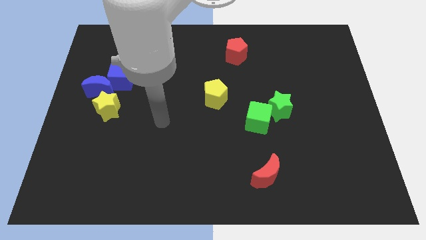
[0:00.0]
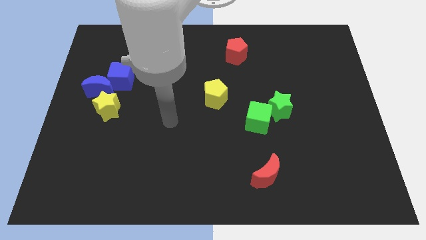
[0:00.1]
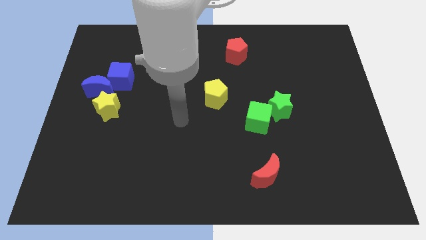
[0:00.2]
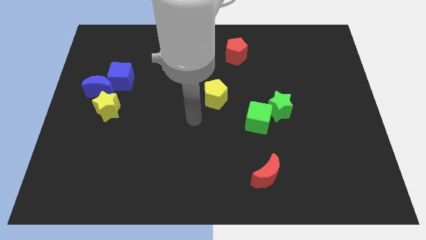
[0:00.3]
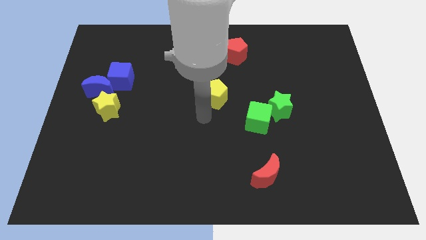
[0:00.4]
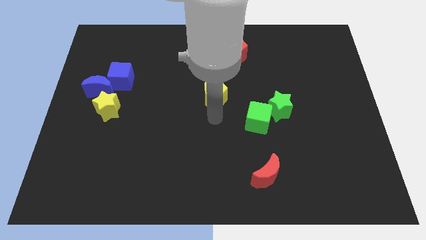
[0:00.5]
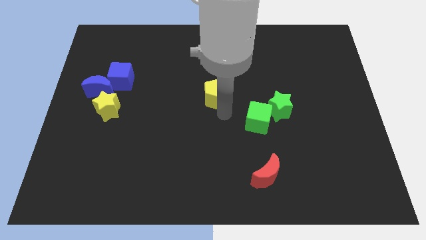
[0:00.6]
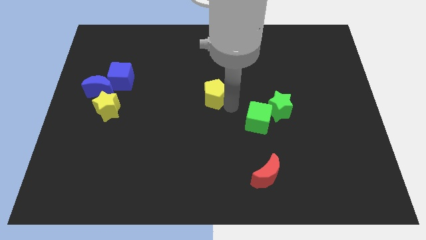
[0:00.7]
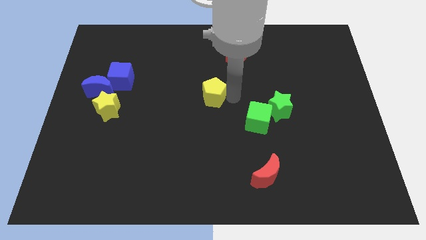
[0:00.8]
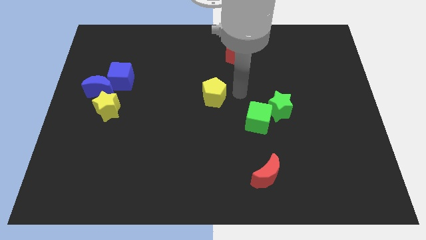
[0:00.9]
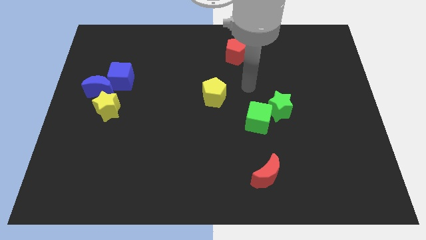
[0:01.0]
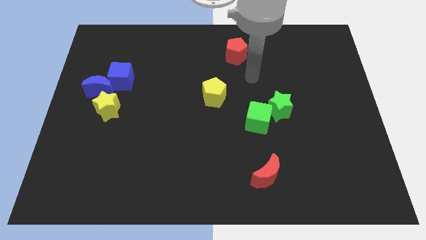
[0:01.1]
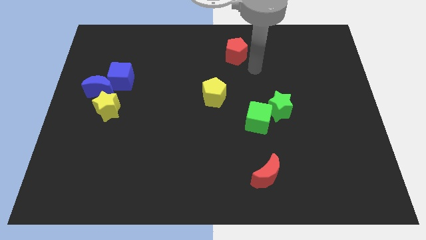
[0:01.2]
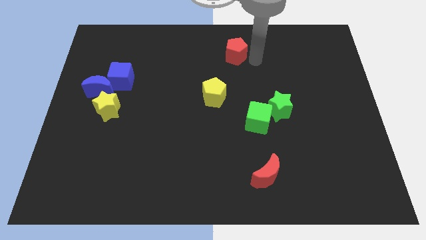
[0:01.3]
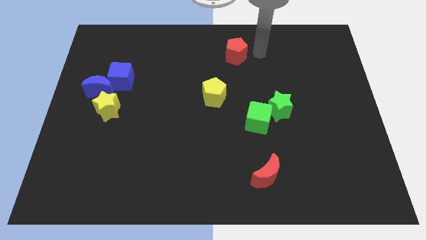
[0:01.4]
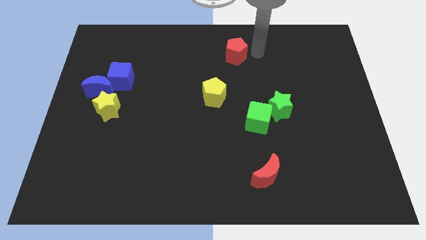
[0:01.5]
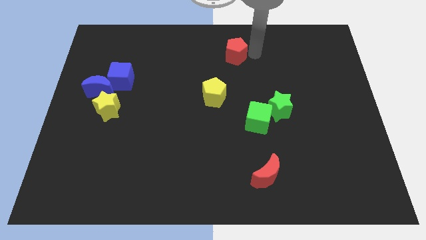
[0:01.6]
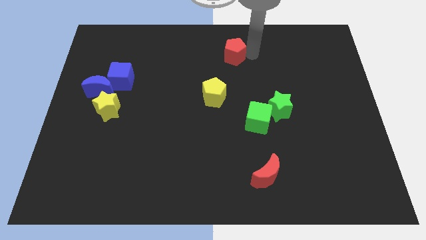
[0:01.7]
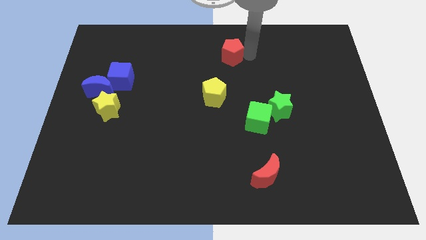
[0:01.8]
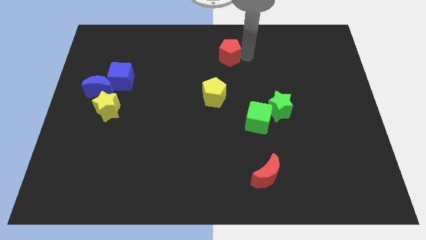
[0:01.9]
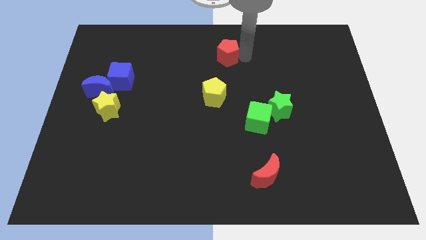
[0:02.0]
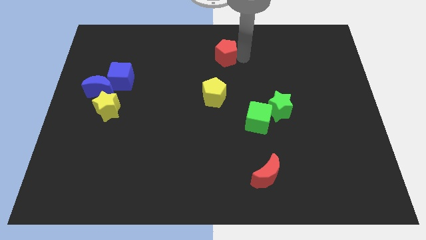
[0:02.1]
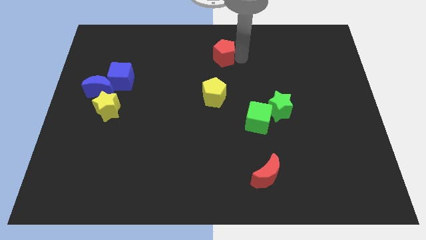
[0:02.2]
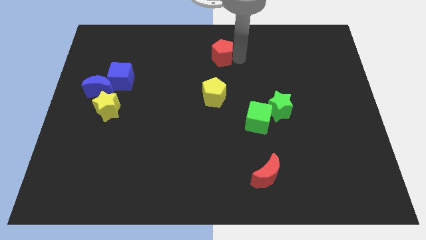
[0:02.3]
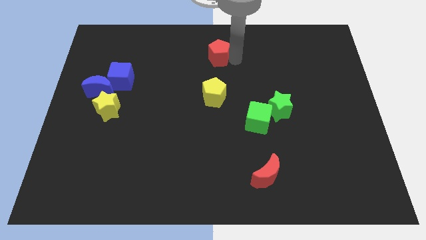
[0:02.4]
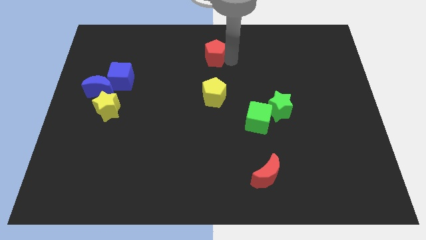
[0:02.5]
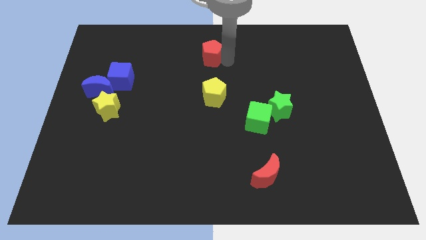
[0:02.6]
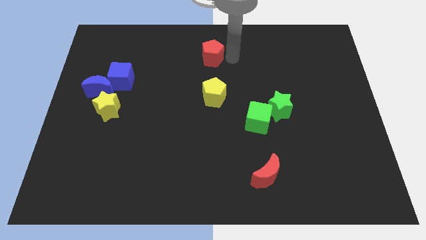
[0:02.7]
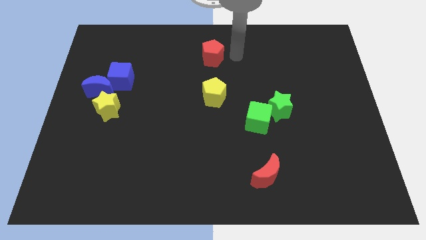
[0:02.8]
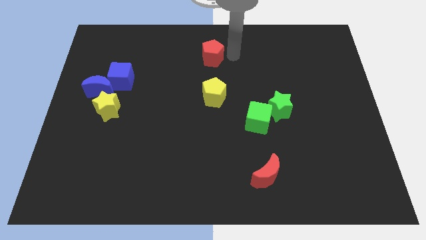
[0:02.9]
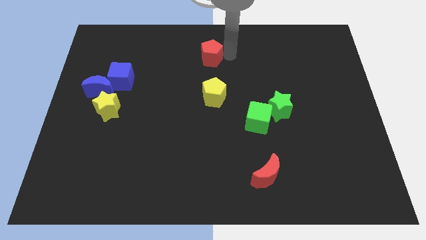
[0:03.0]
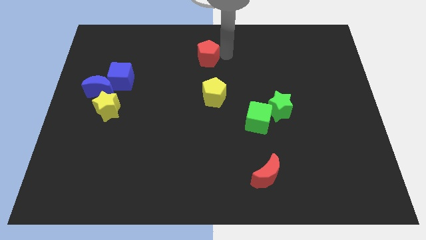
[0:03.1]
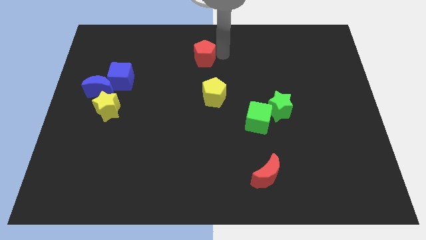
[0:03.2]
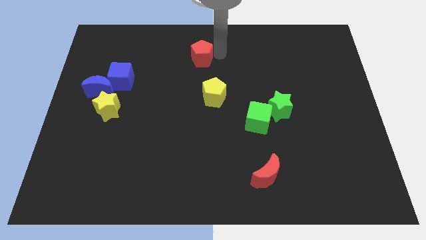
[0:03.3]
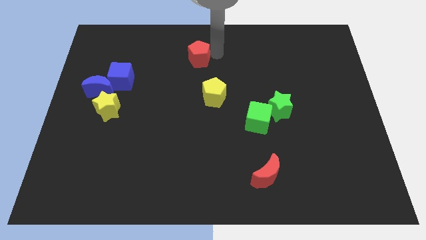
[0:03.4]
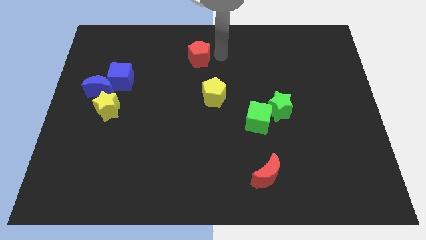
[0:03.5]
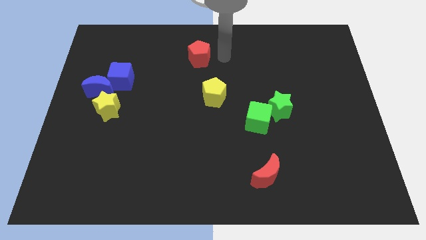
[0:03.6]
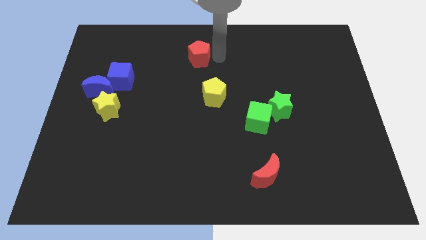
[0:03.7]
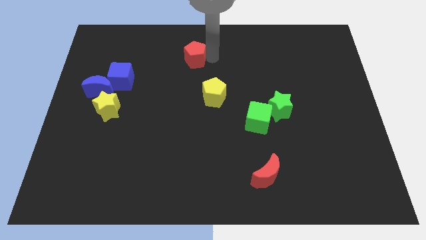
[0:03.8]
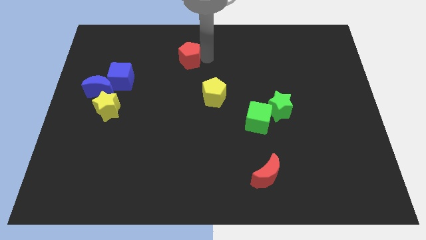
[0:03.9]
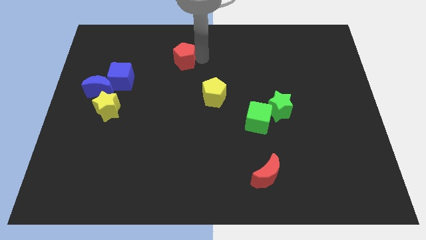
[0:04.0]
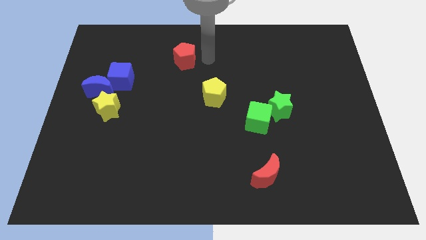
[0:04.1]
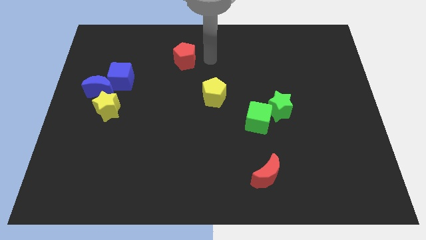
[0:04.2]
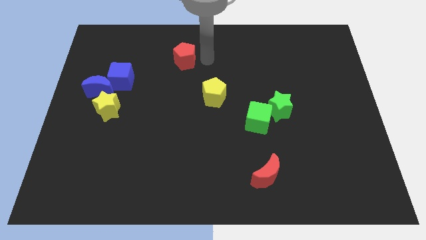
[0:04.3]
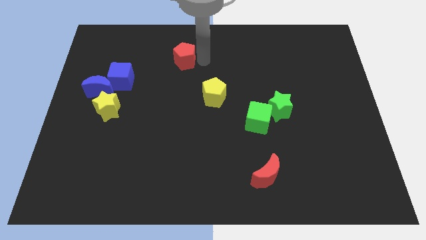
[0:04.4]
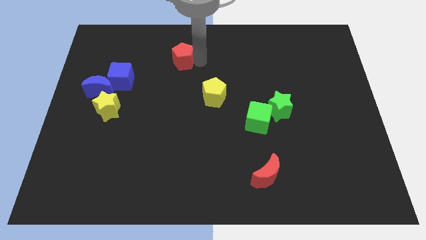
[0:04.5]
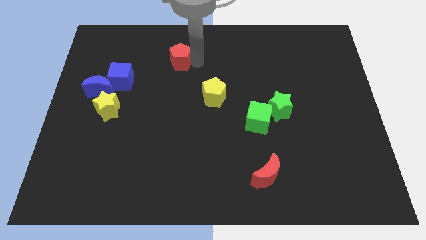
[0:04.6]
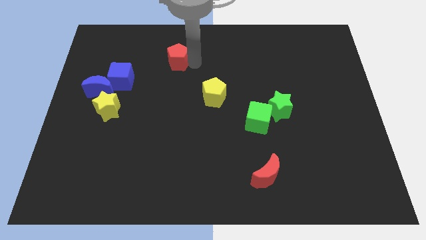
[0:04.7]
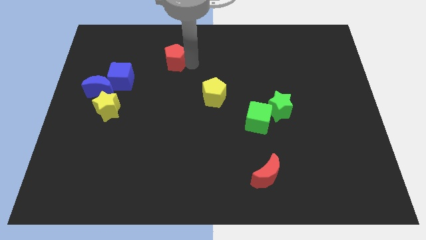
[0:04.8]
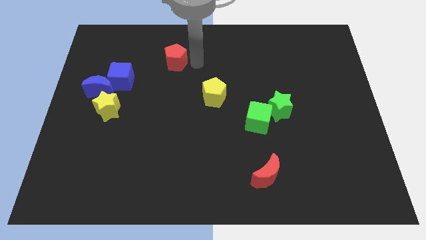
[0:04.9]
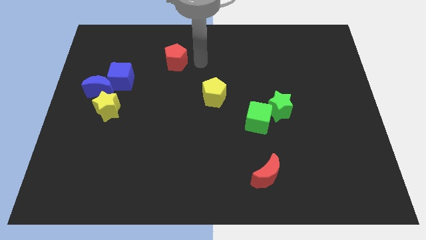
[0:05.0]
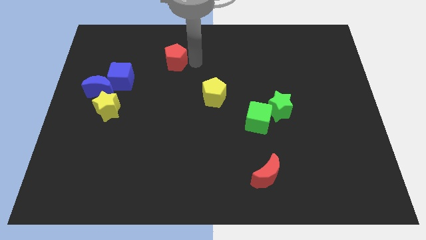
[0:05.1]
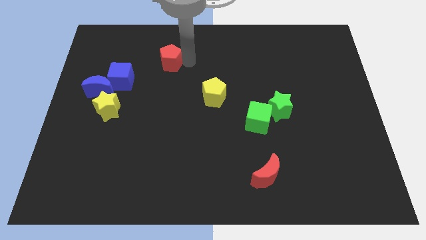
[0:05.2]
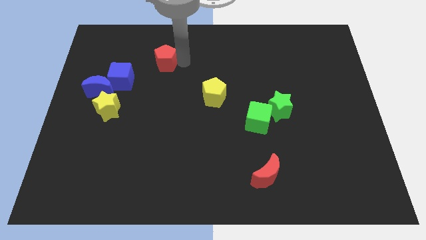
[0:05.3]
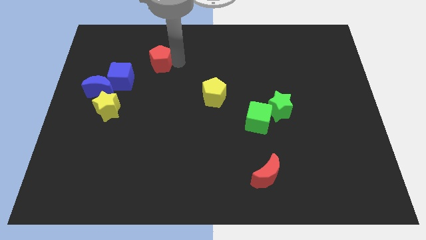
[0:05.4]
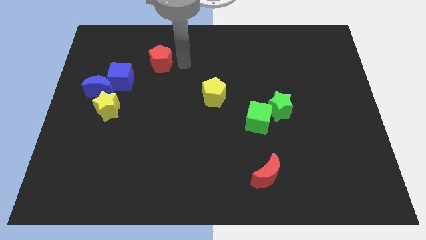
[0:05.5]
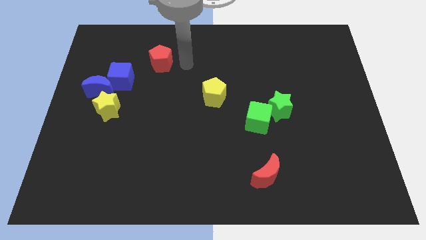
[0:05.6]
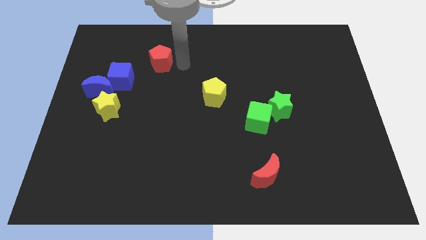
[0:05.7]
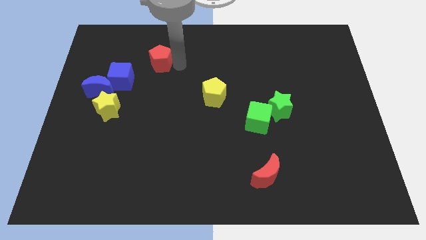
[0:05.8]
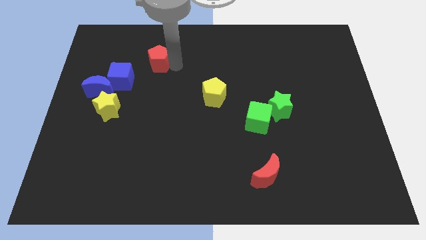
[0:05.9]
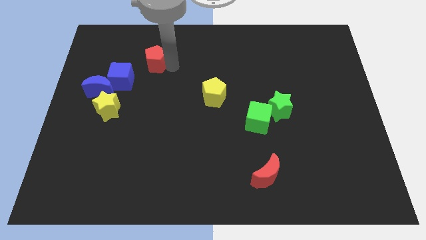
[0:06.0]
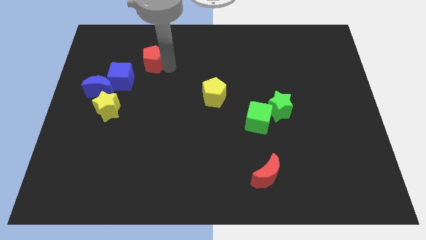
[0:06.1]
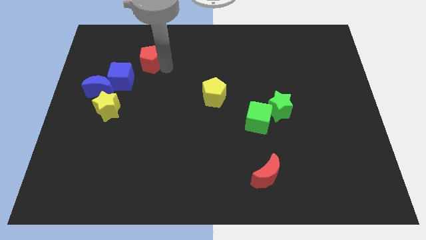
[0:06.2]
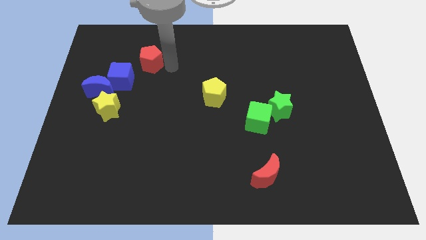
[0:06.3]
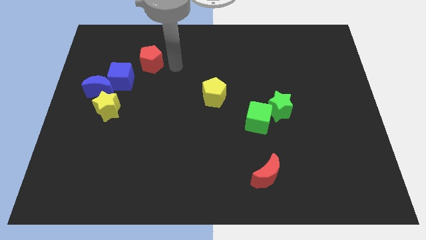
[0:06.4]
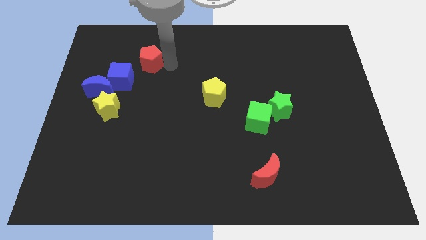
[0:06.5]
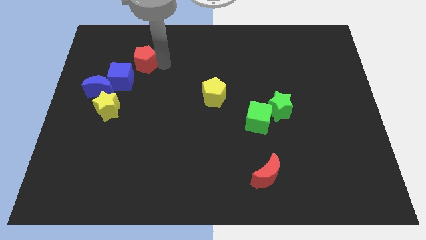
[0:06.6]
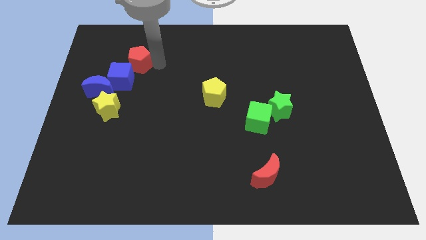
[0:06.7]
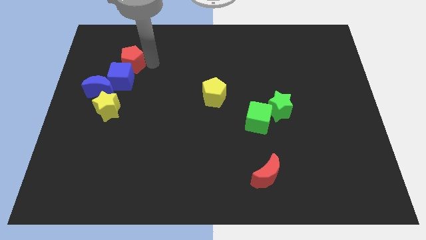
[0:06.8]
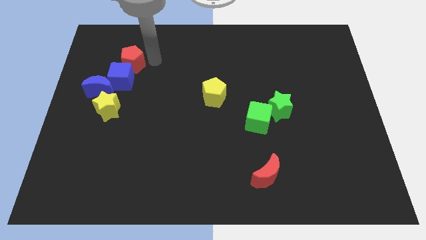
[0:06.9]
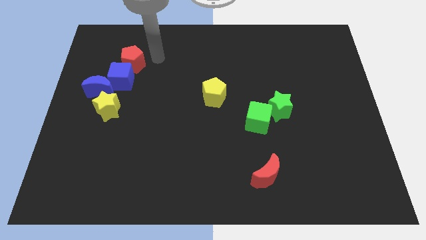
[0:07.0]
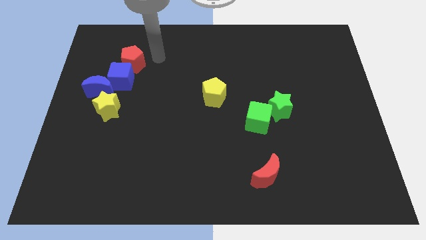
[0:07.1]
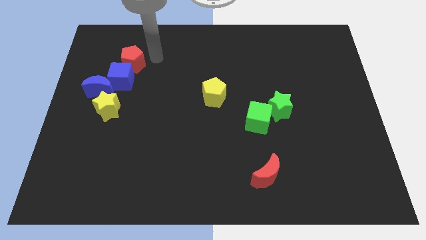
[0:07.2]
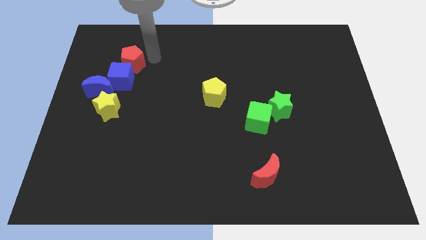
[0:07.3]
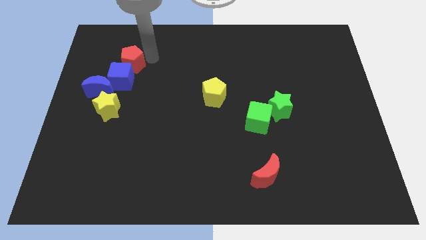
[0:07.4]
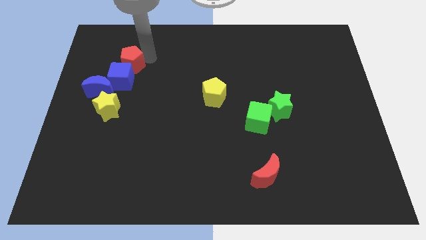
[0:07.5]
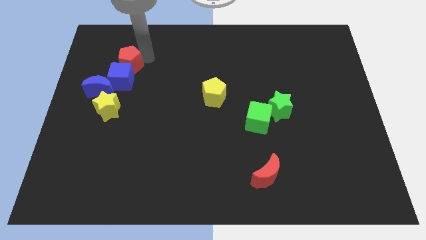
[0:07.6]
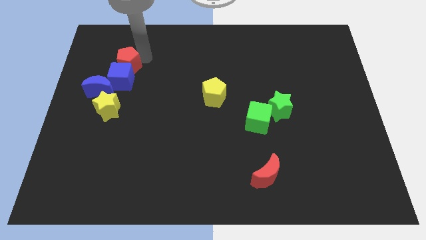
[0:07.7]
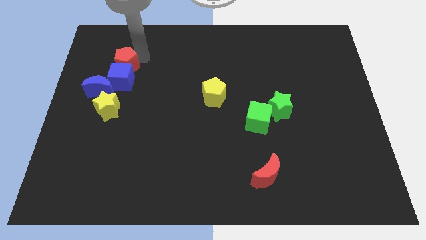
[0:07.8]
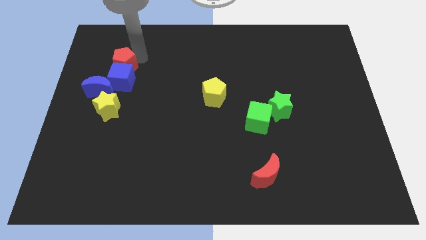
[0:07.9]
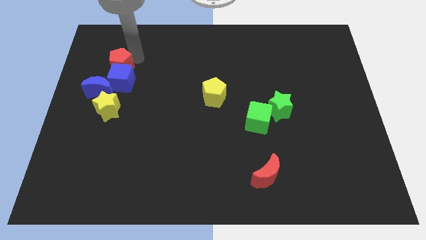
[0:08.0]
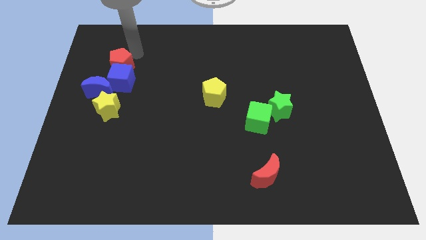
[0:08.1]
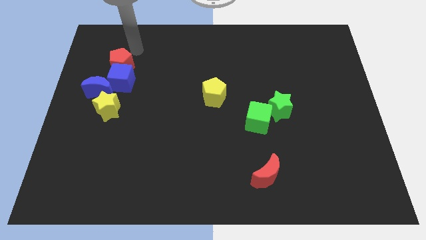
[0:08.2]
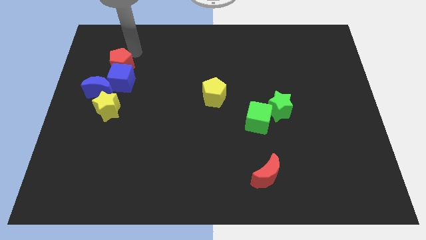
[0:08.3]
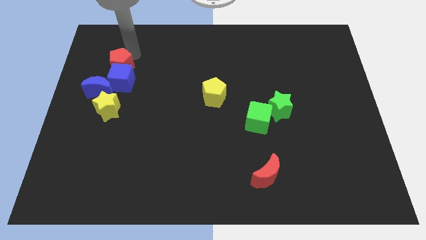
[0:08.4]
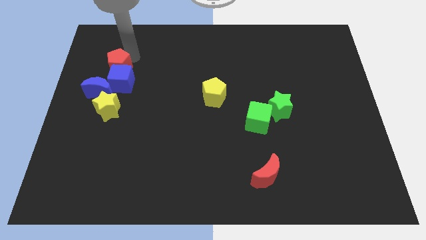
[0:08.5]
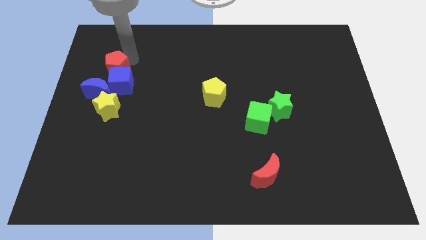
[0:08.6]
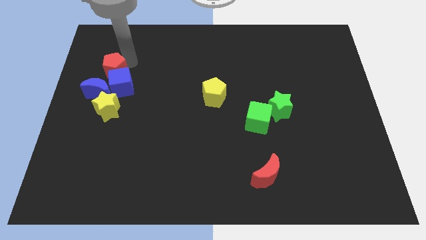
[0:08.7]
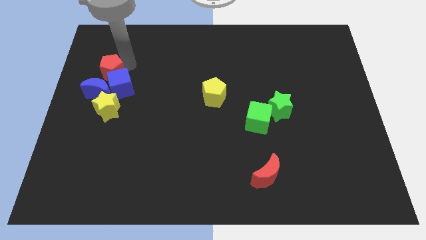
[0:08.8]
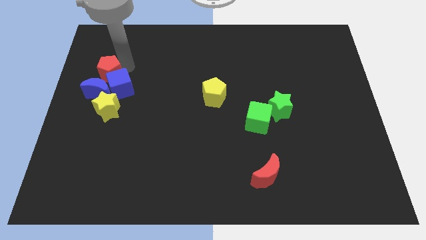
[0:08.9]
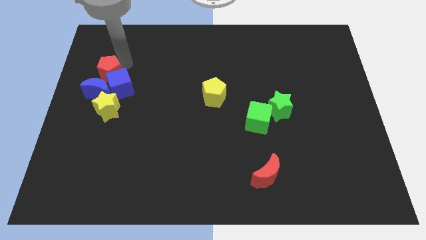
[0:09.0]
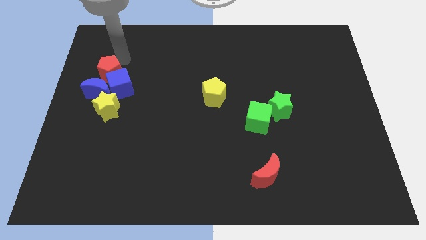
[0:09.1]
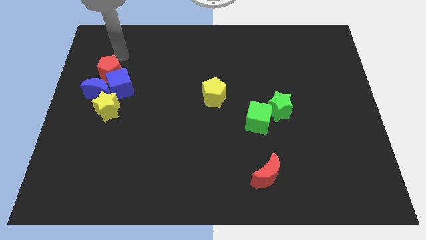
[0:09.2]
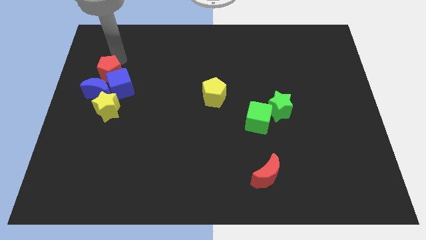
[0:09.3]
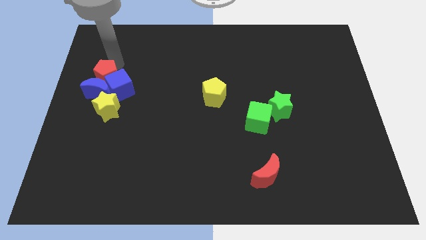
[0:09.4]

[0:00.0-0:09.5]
slide the red pentagon to the blue moon
